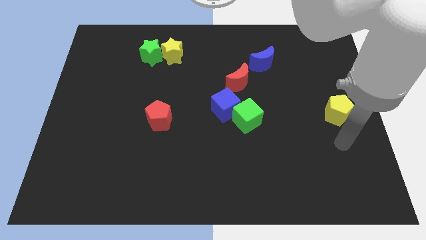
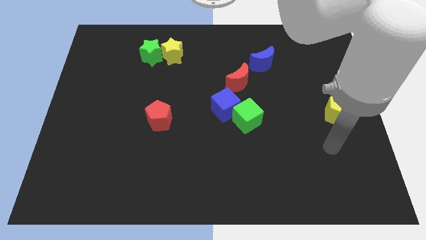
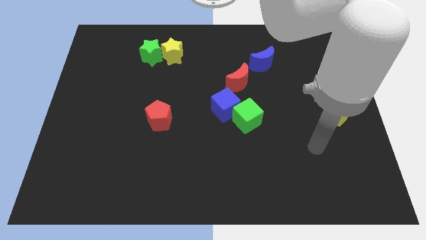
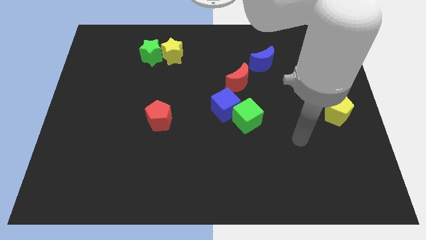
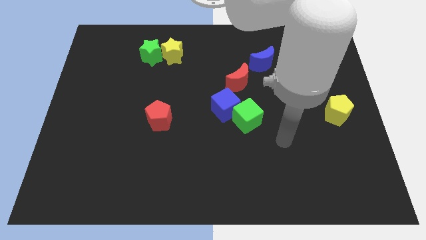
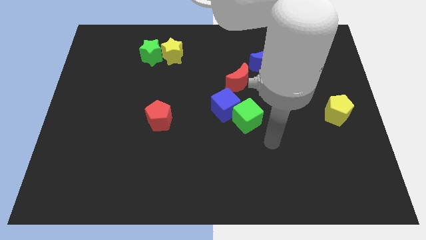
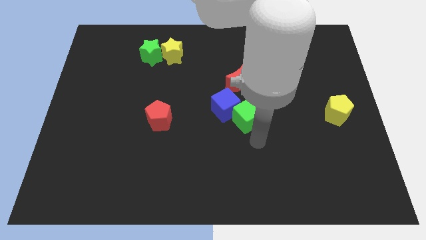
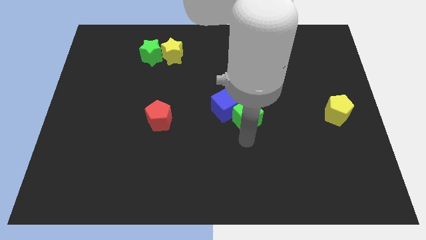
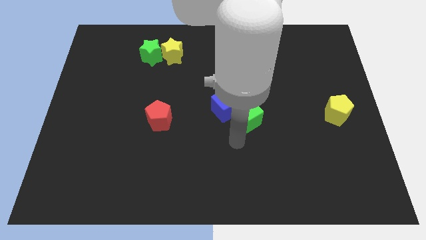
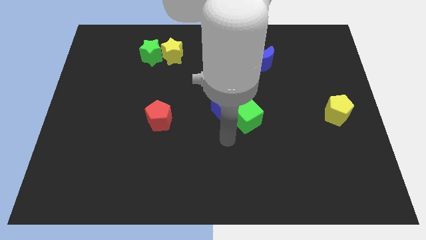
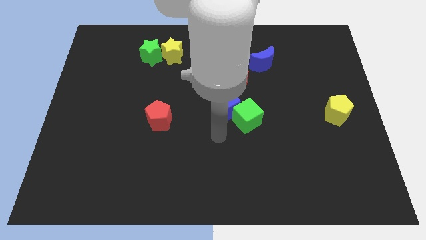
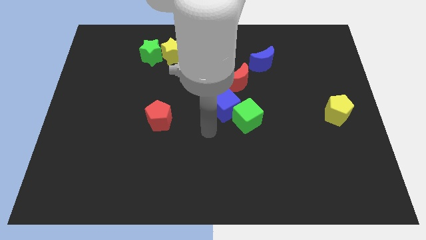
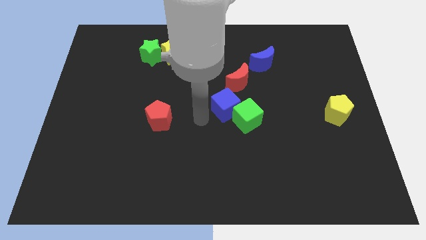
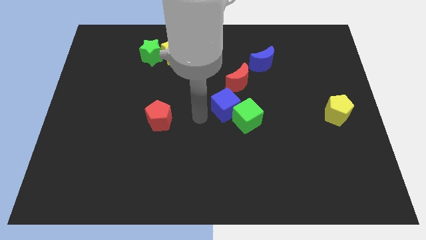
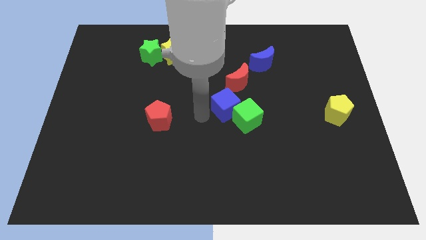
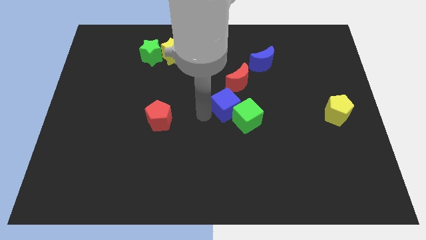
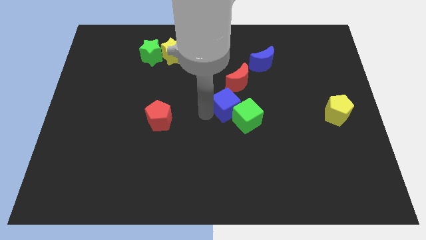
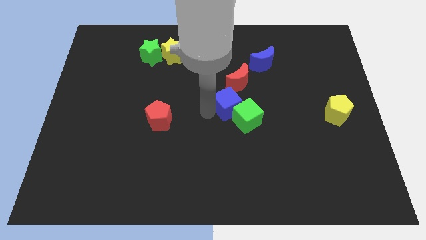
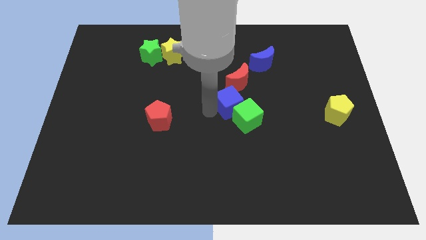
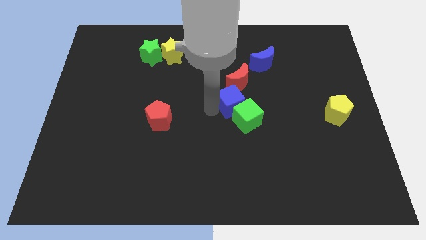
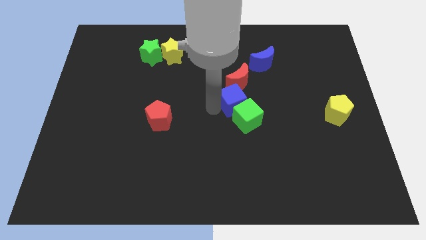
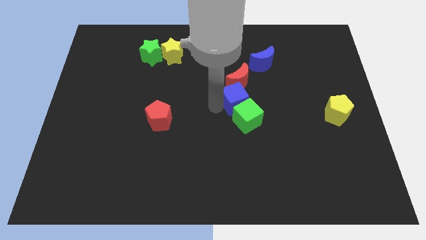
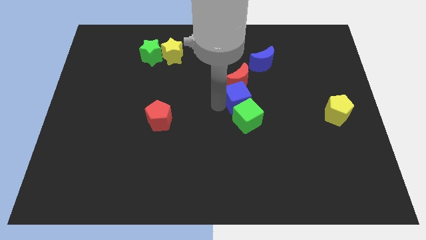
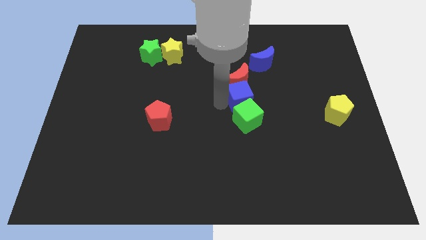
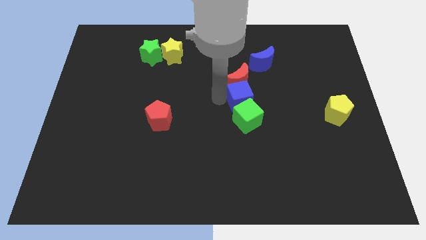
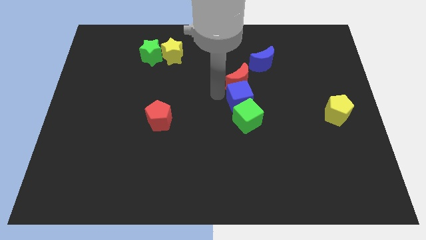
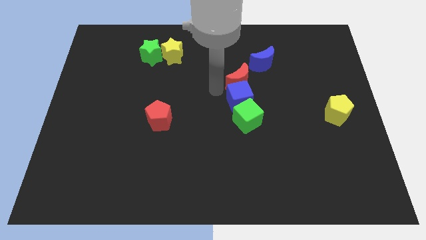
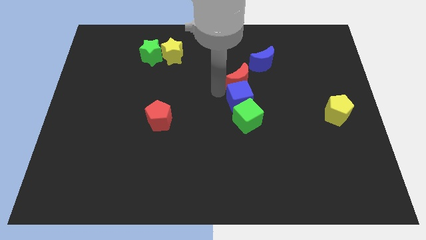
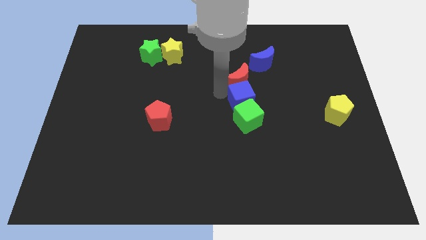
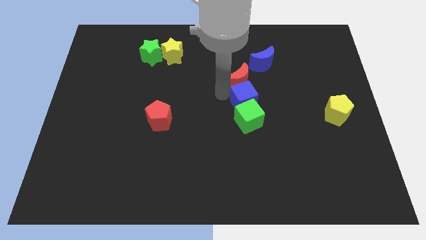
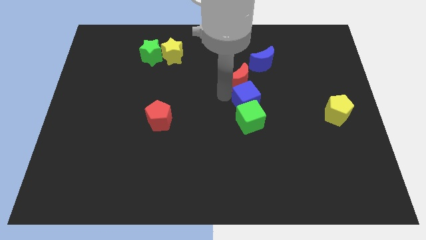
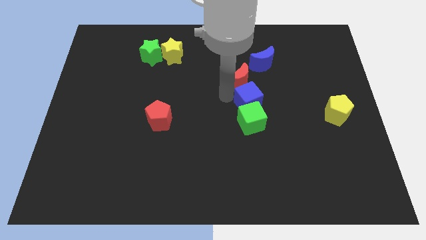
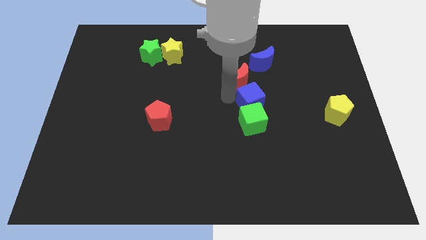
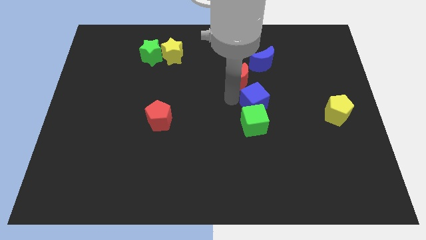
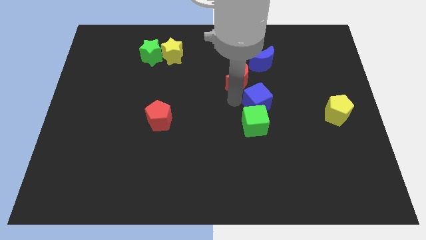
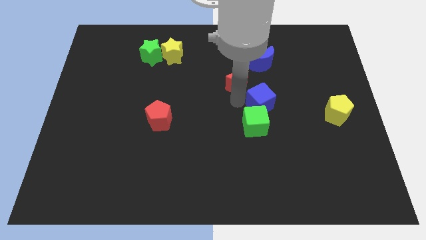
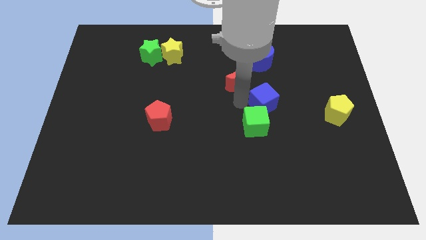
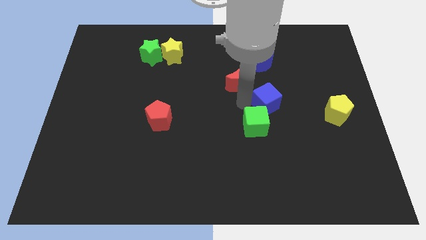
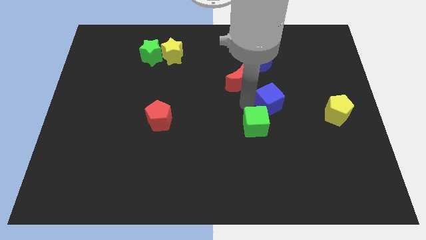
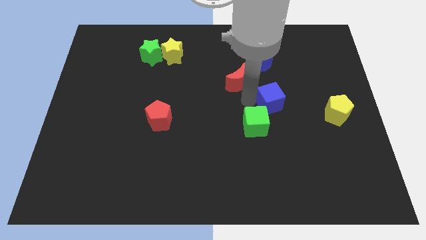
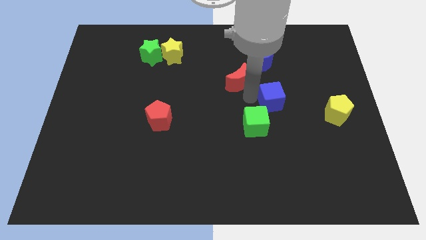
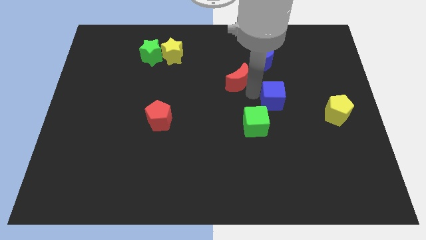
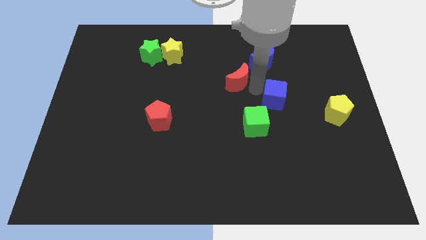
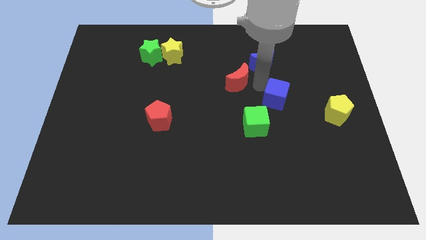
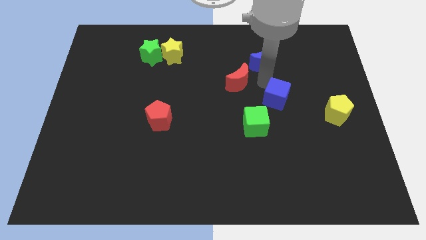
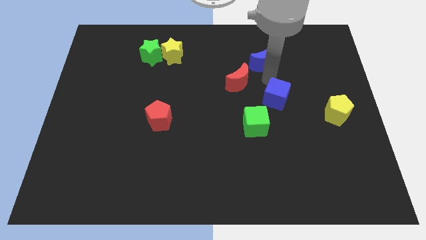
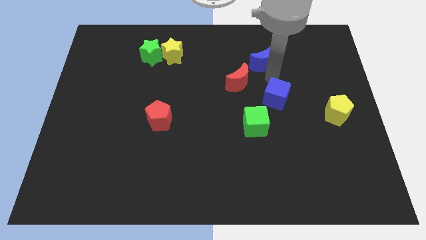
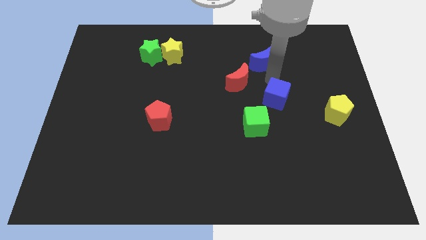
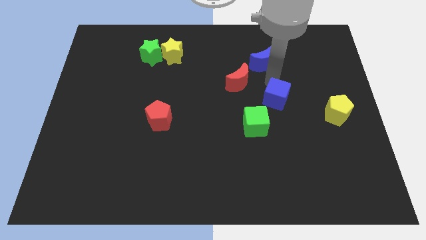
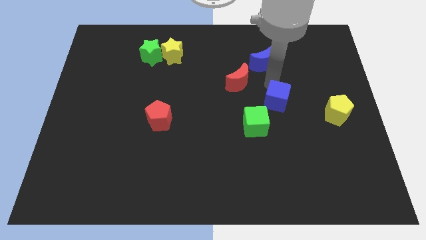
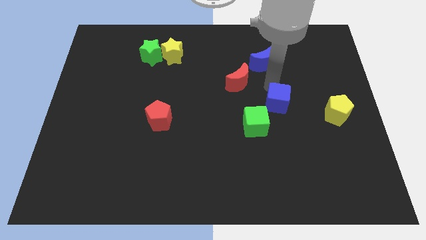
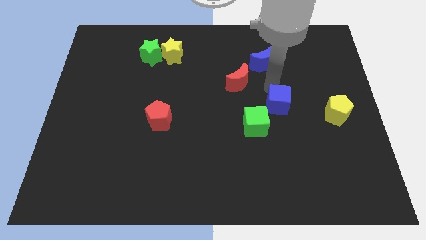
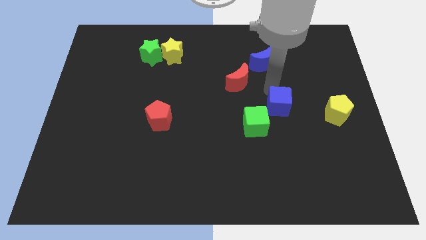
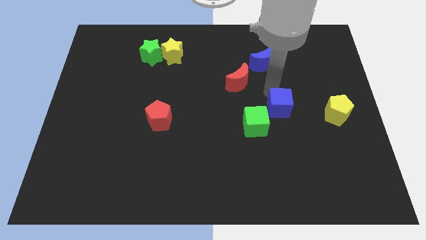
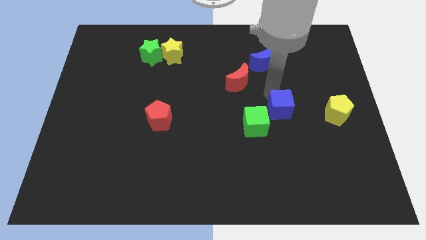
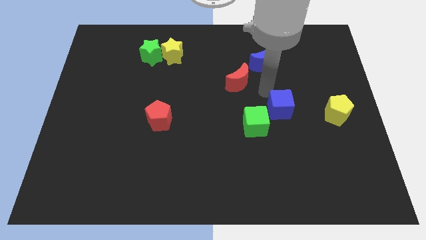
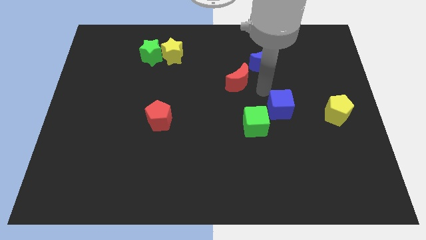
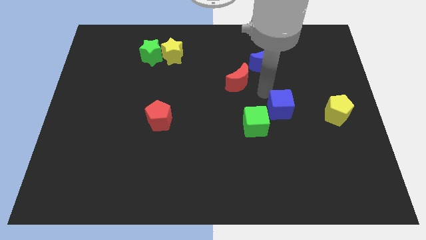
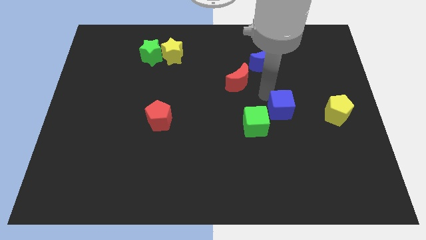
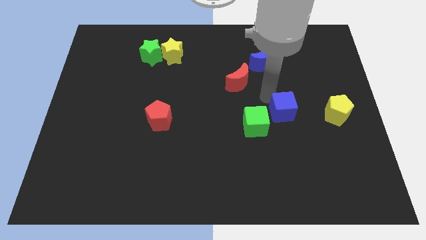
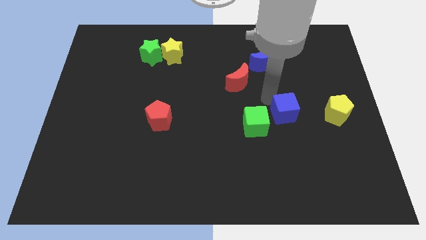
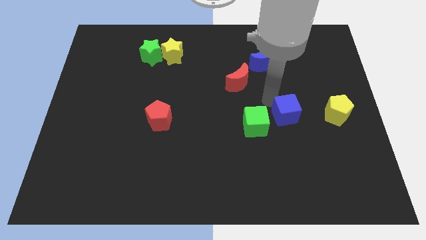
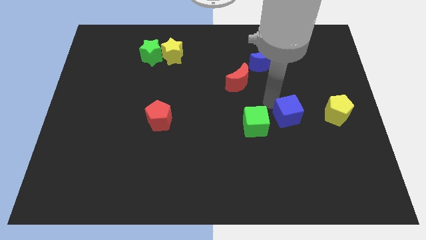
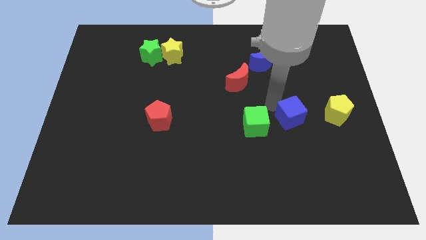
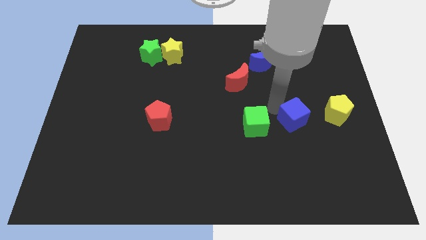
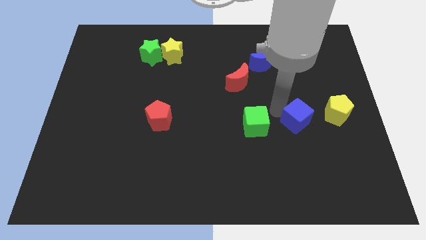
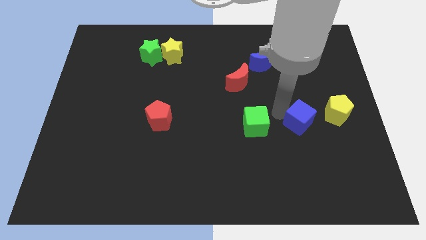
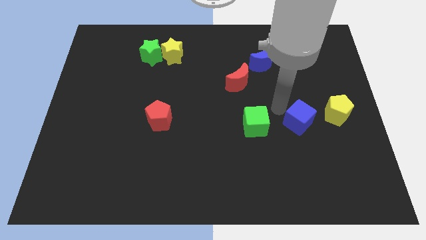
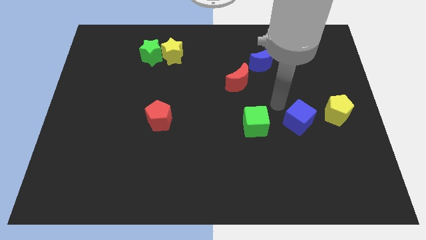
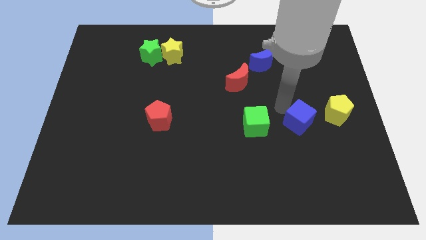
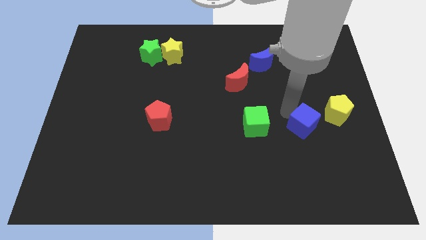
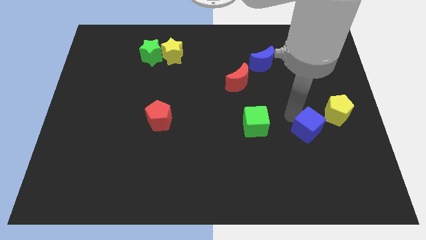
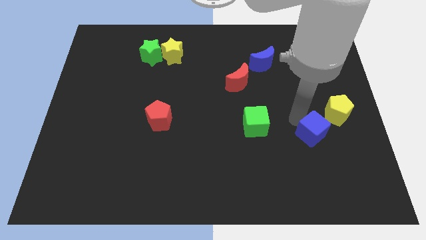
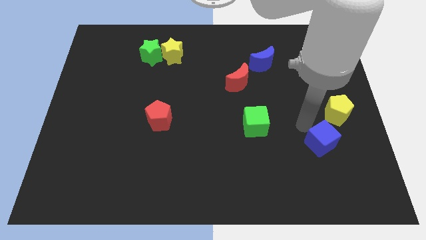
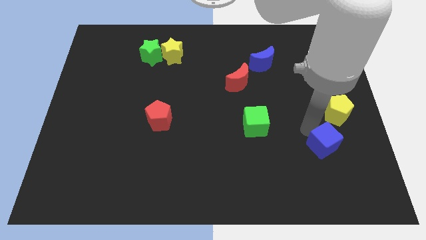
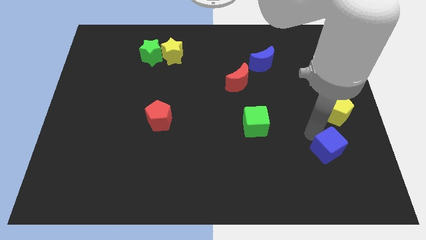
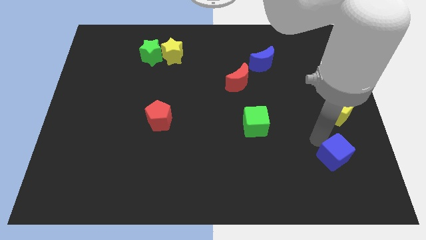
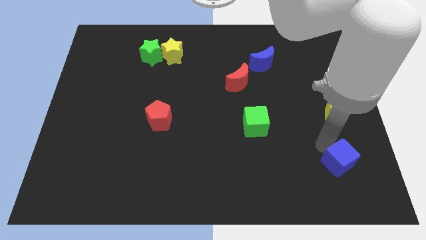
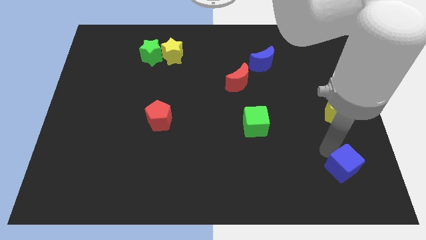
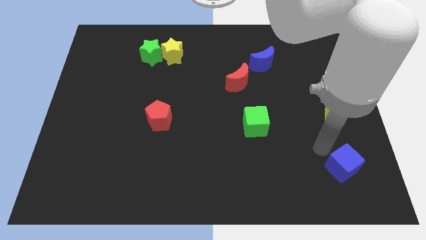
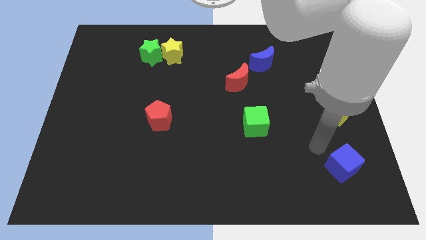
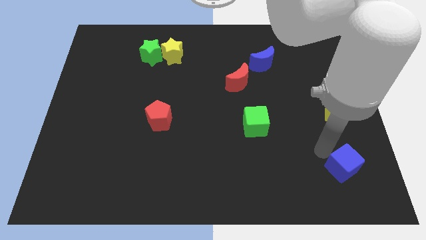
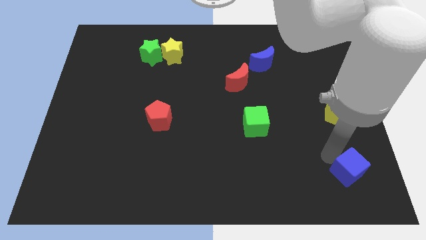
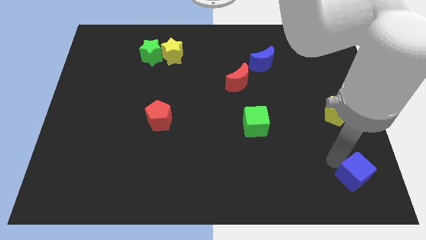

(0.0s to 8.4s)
put the blue cube to the bottom right of the board
